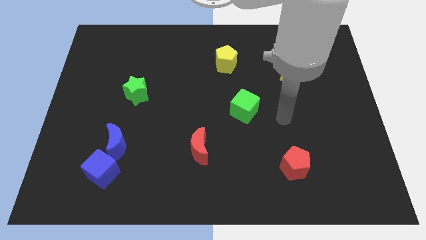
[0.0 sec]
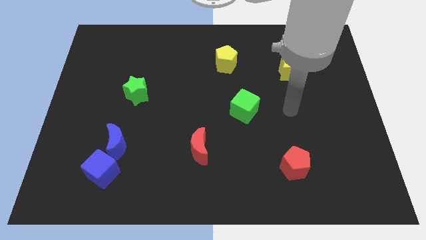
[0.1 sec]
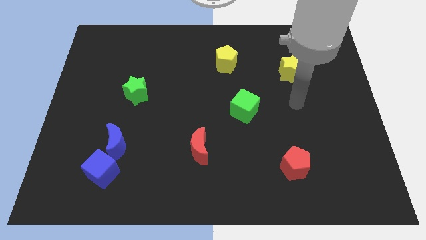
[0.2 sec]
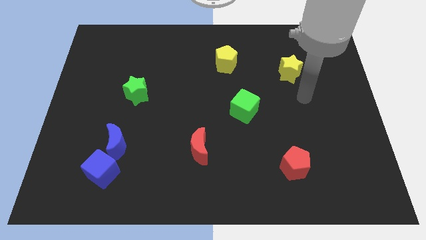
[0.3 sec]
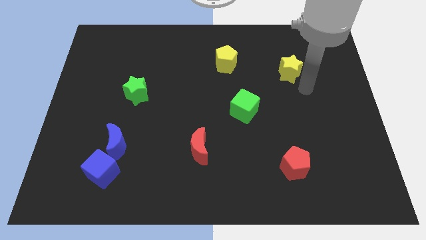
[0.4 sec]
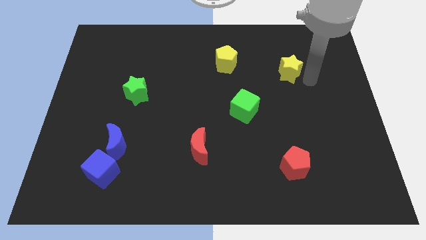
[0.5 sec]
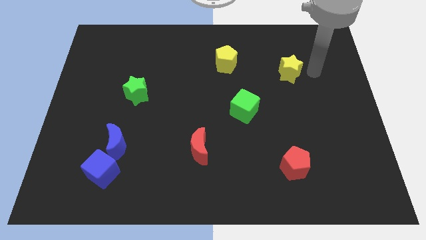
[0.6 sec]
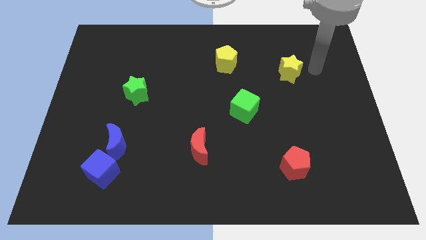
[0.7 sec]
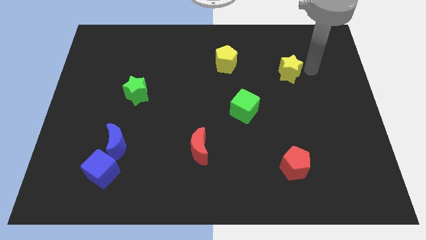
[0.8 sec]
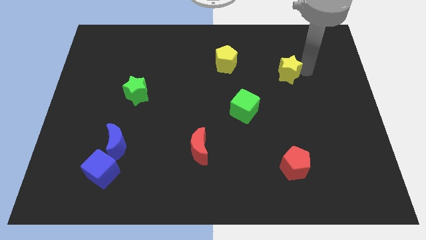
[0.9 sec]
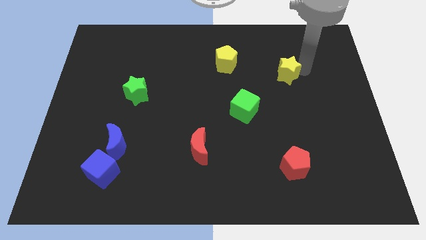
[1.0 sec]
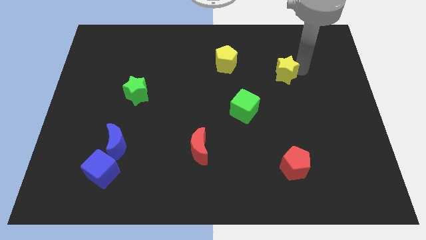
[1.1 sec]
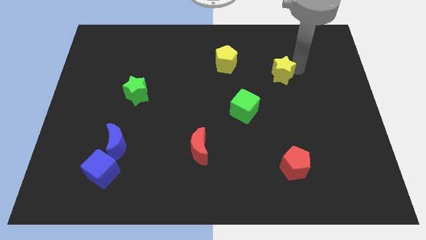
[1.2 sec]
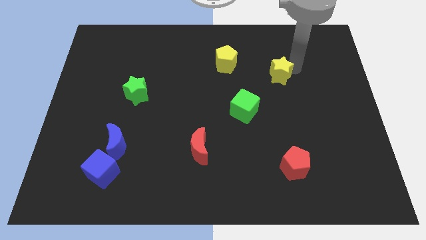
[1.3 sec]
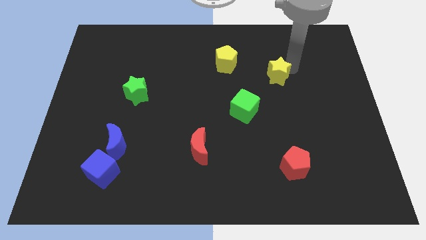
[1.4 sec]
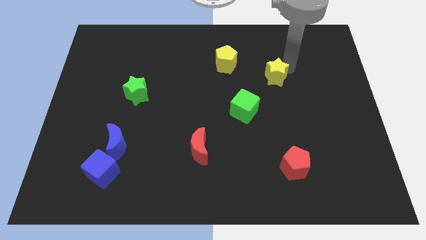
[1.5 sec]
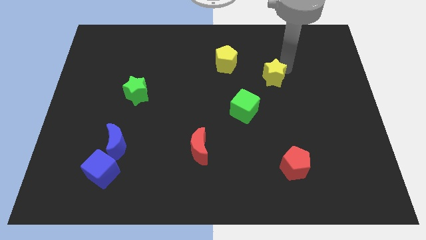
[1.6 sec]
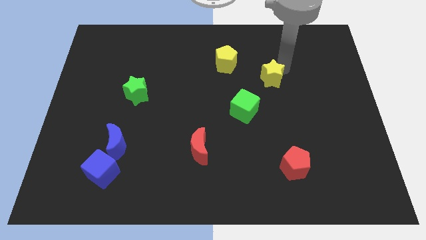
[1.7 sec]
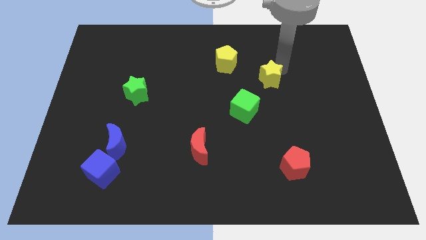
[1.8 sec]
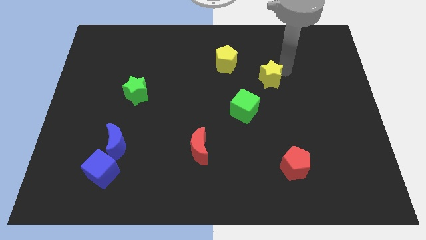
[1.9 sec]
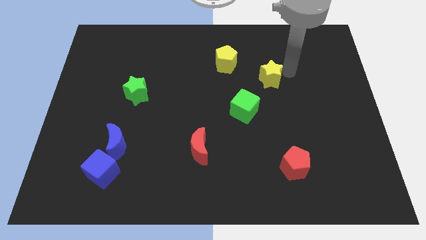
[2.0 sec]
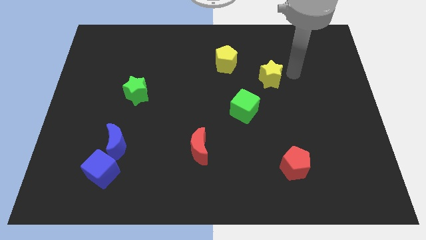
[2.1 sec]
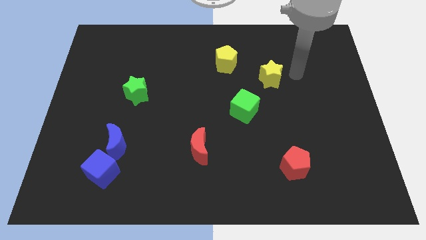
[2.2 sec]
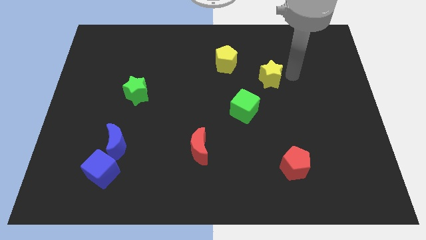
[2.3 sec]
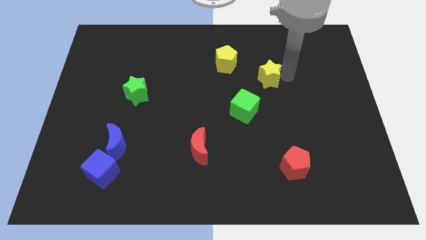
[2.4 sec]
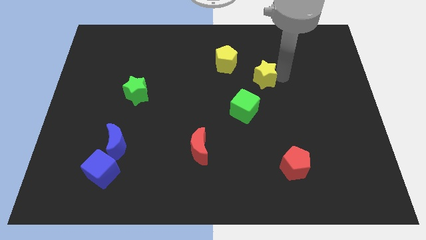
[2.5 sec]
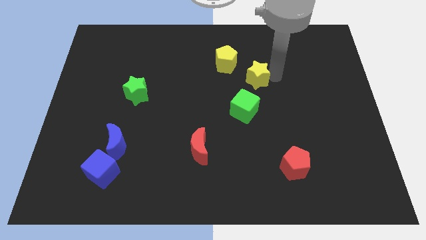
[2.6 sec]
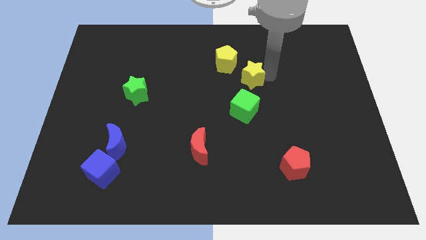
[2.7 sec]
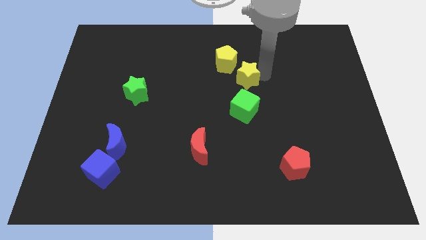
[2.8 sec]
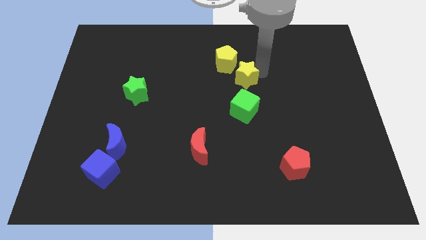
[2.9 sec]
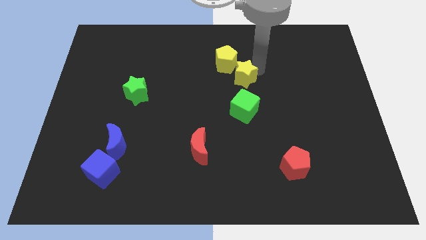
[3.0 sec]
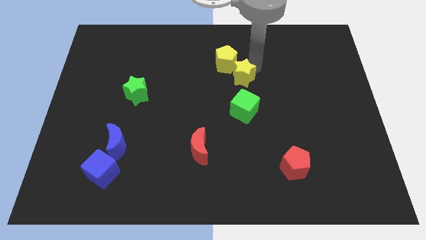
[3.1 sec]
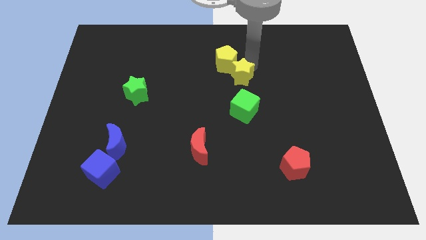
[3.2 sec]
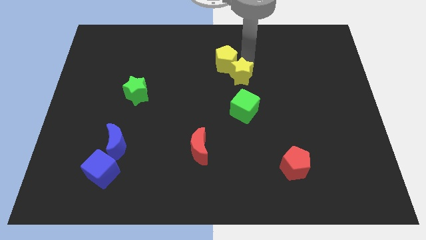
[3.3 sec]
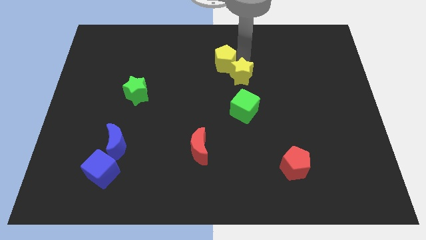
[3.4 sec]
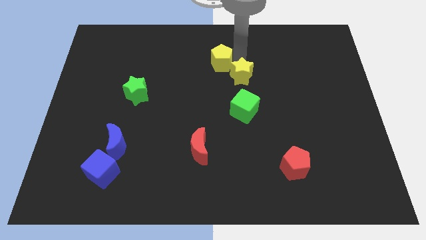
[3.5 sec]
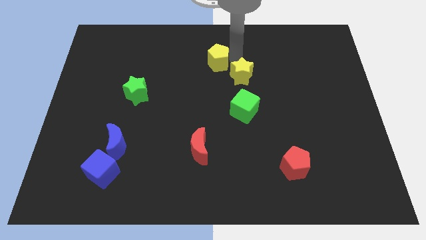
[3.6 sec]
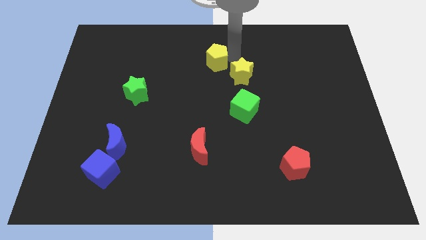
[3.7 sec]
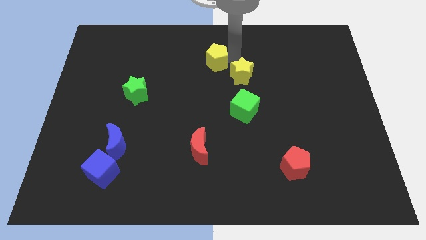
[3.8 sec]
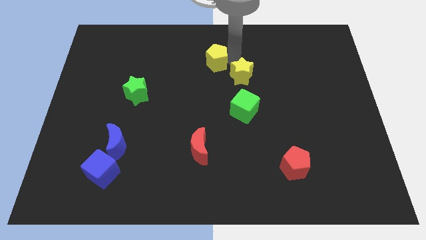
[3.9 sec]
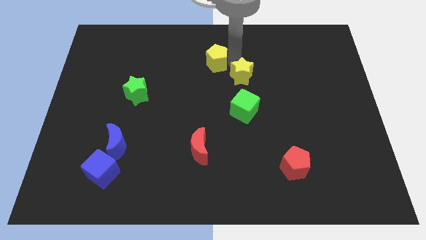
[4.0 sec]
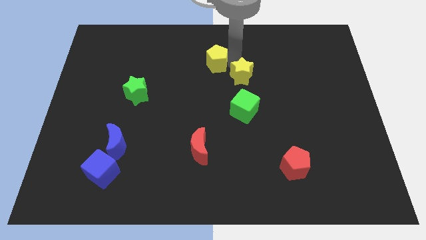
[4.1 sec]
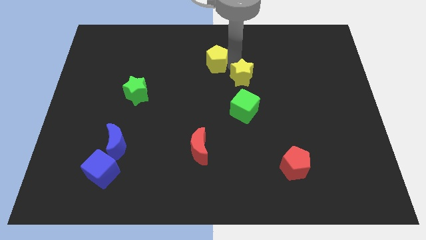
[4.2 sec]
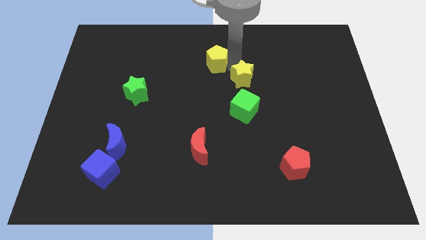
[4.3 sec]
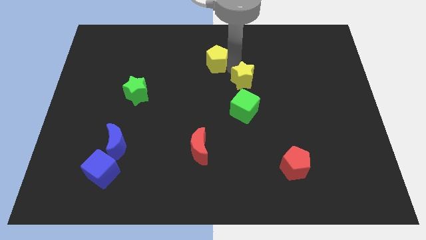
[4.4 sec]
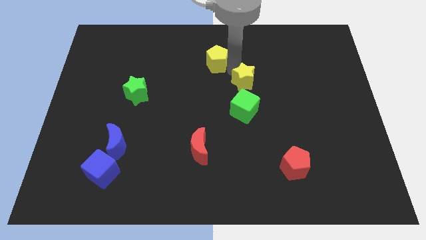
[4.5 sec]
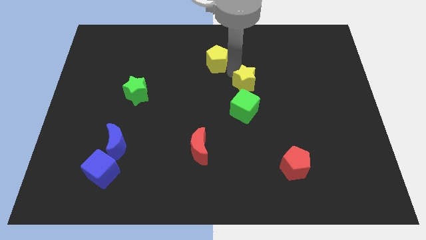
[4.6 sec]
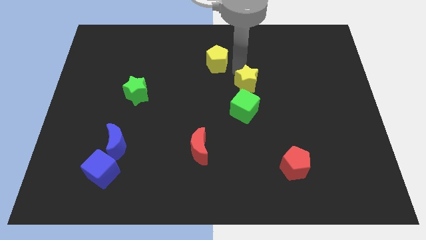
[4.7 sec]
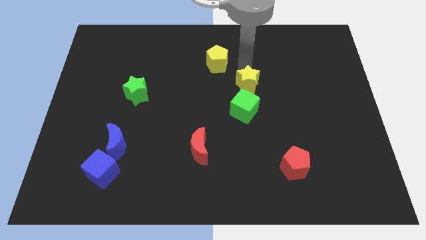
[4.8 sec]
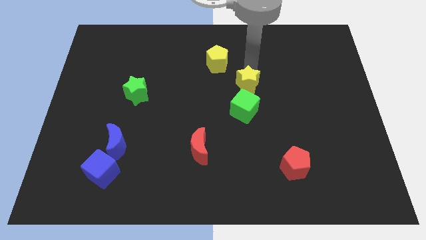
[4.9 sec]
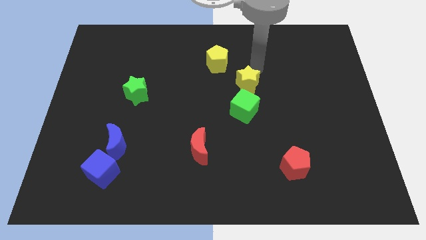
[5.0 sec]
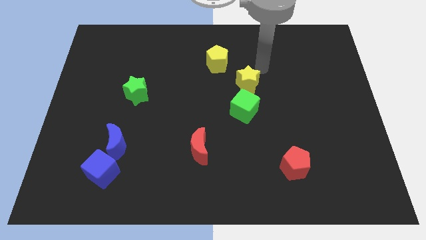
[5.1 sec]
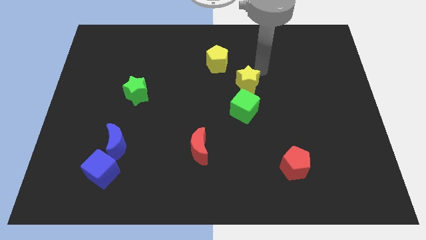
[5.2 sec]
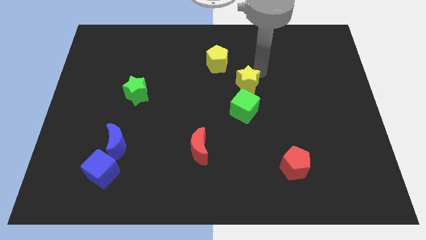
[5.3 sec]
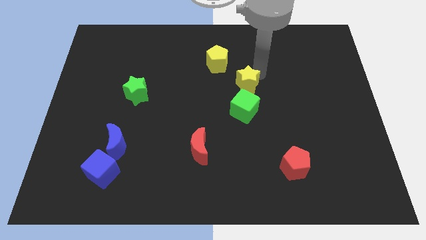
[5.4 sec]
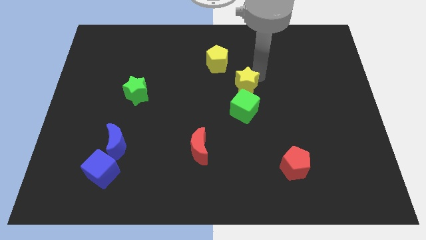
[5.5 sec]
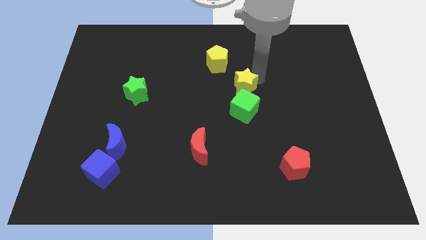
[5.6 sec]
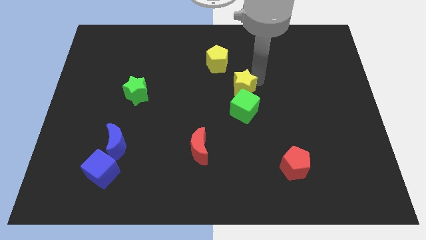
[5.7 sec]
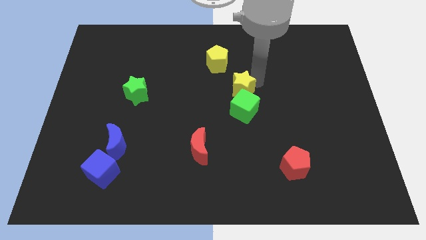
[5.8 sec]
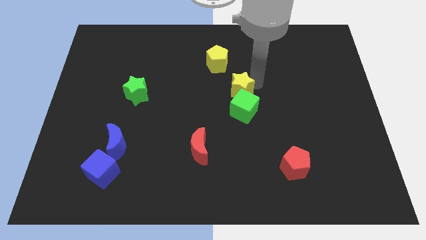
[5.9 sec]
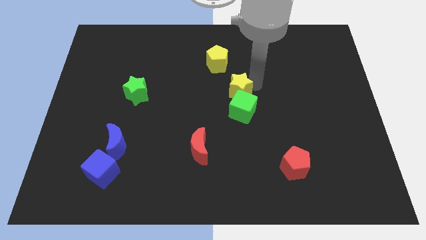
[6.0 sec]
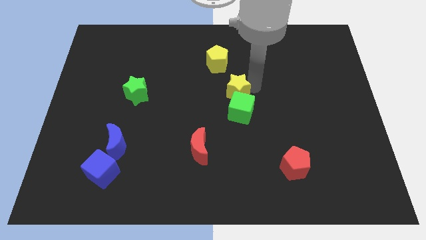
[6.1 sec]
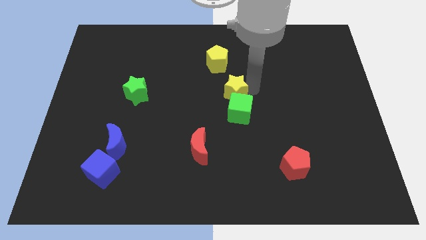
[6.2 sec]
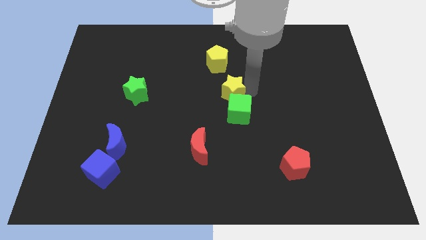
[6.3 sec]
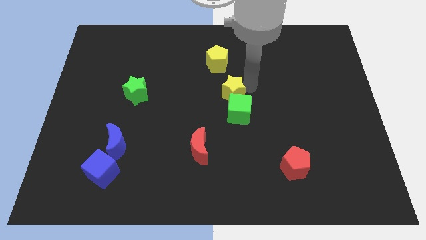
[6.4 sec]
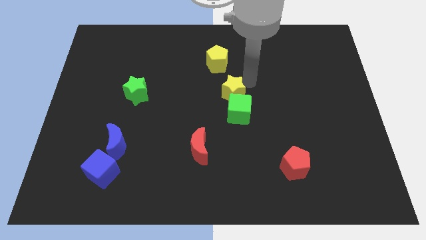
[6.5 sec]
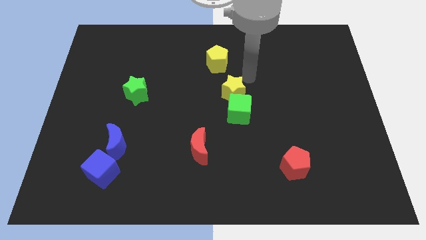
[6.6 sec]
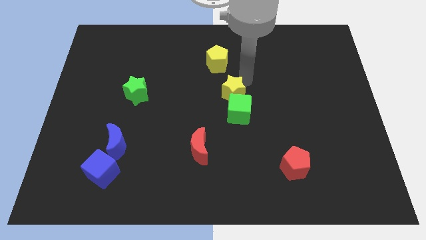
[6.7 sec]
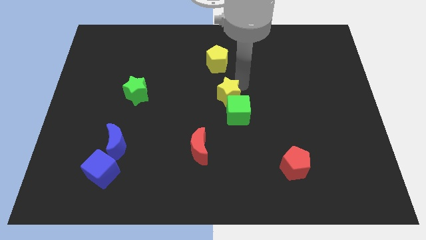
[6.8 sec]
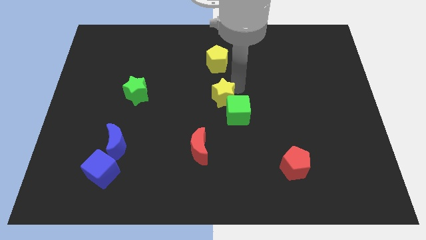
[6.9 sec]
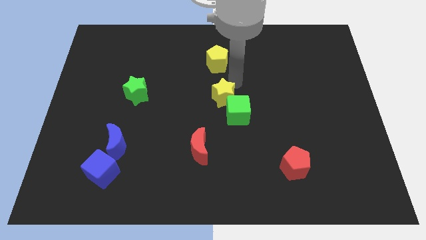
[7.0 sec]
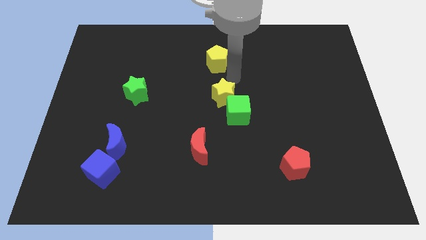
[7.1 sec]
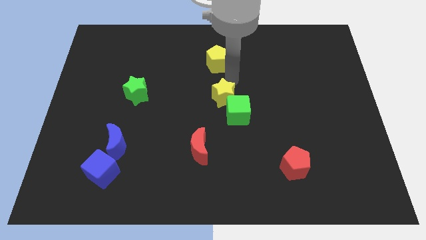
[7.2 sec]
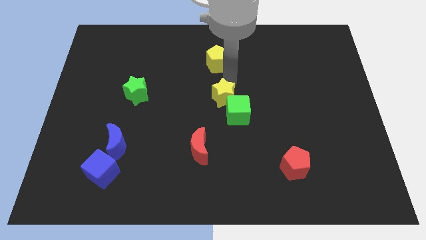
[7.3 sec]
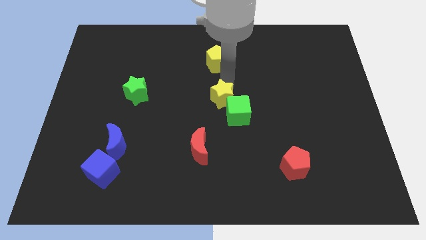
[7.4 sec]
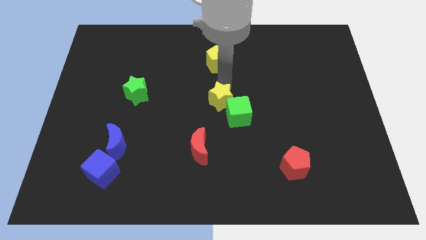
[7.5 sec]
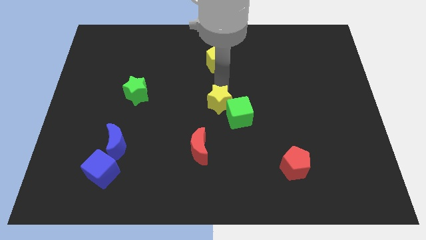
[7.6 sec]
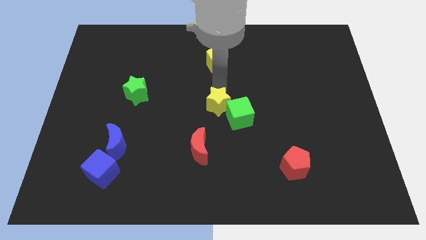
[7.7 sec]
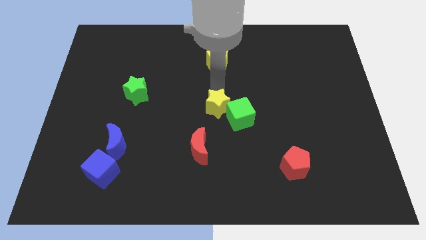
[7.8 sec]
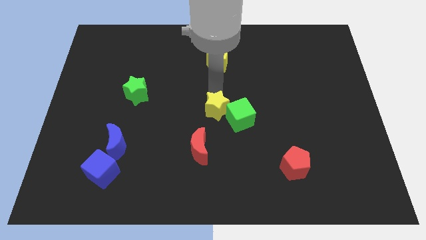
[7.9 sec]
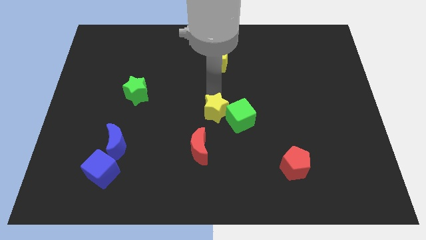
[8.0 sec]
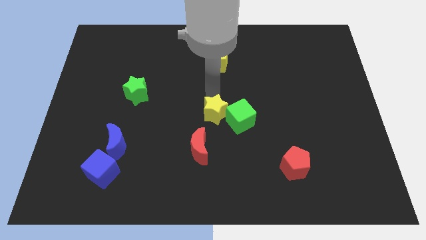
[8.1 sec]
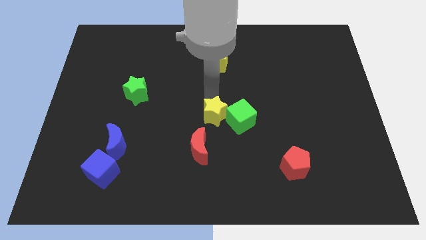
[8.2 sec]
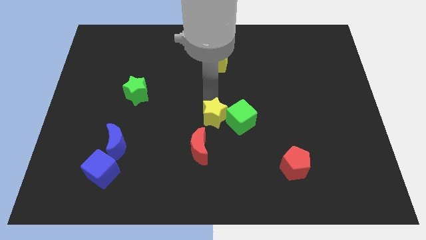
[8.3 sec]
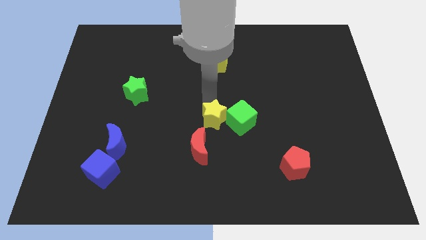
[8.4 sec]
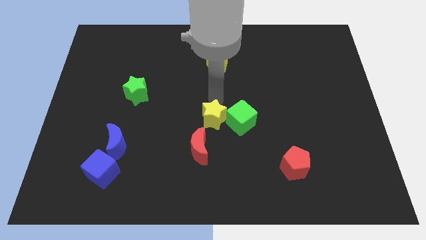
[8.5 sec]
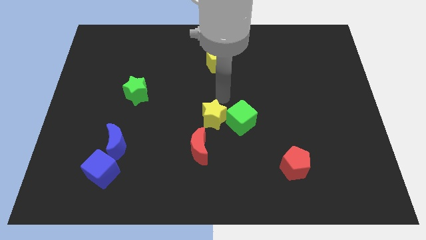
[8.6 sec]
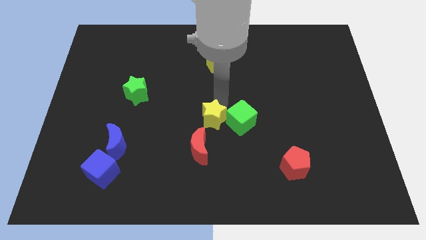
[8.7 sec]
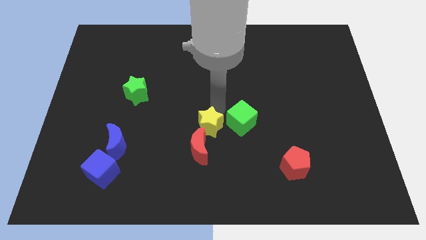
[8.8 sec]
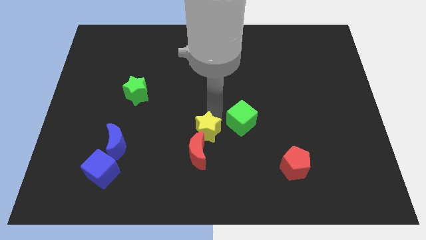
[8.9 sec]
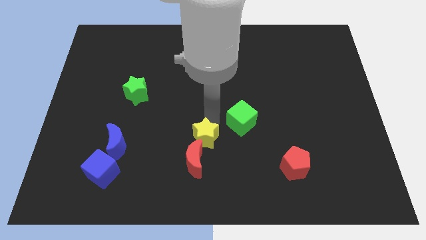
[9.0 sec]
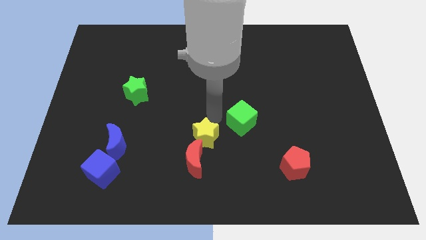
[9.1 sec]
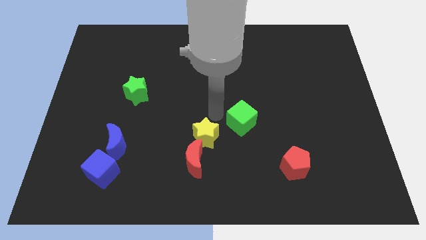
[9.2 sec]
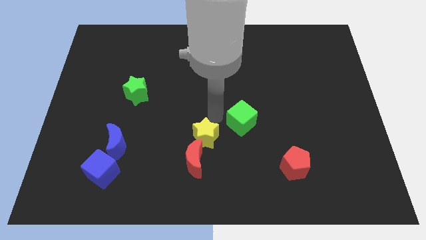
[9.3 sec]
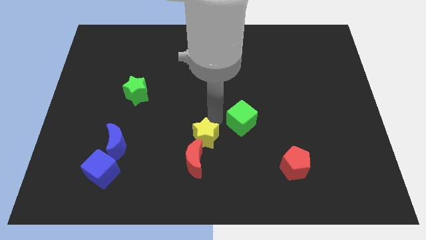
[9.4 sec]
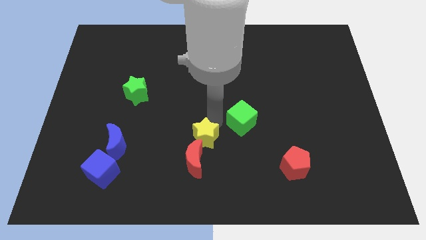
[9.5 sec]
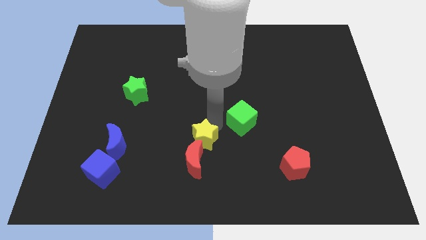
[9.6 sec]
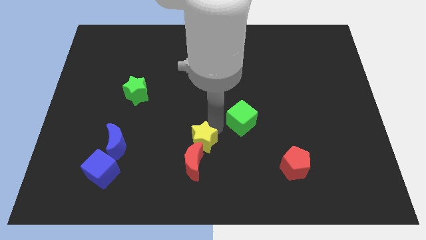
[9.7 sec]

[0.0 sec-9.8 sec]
slide the yellow star close to the red moon
